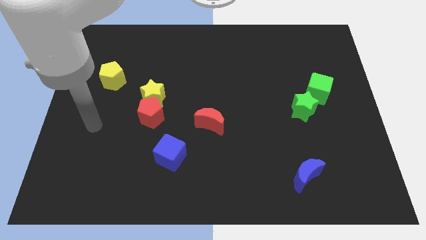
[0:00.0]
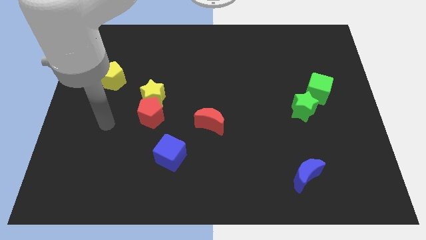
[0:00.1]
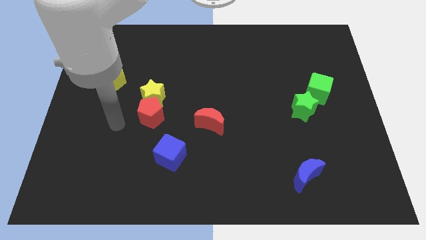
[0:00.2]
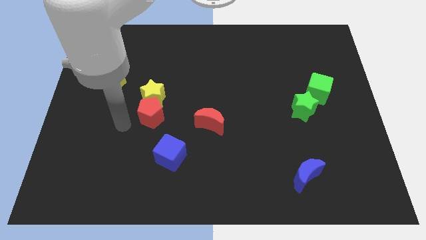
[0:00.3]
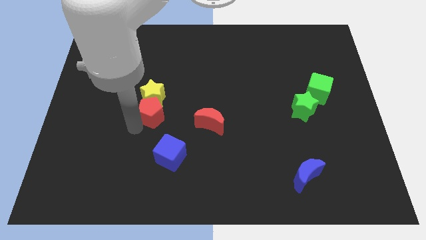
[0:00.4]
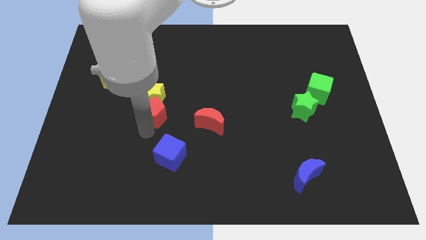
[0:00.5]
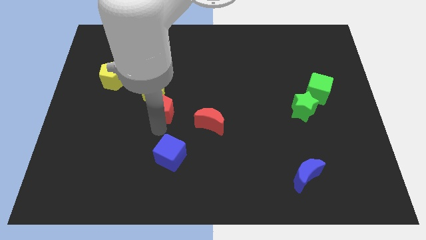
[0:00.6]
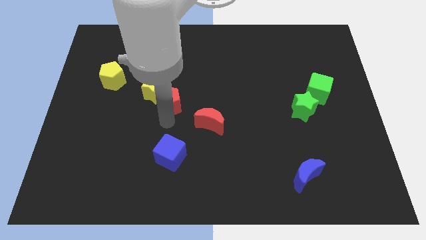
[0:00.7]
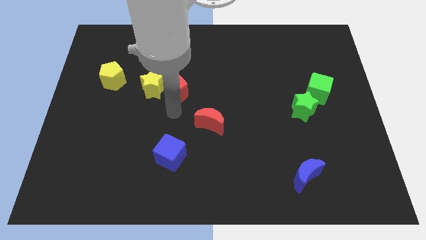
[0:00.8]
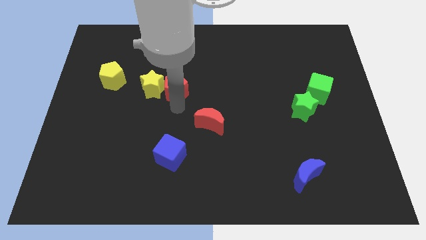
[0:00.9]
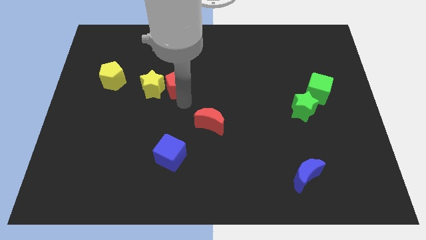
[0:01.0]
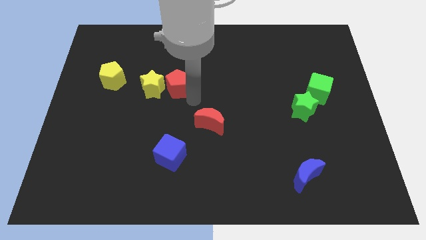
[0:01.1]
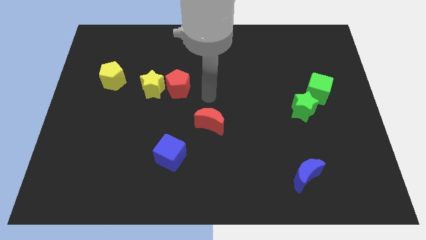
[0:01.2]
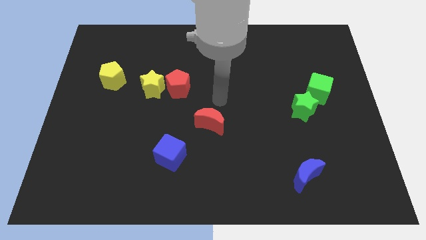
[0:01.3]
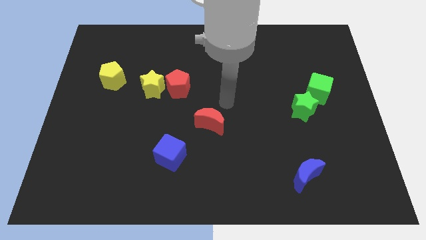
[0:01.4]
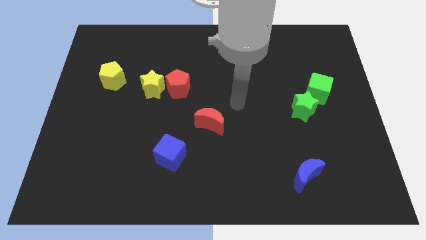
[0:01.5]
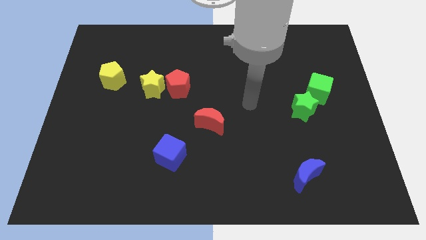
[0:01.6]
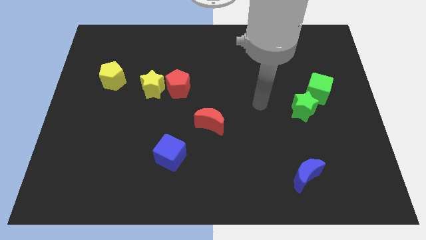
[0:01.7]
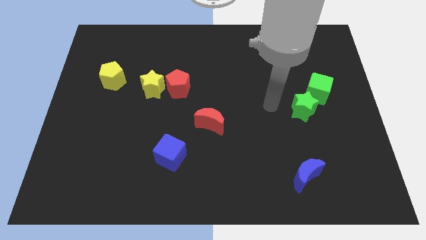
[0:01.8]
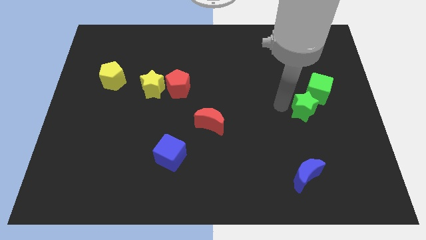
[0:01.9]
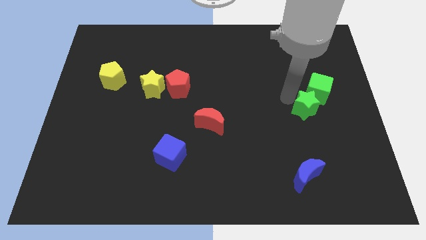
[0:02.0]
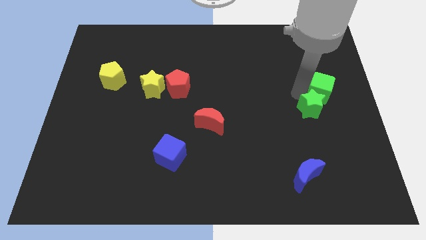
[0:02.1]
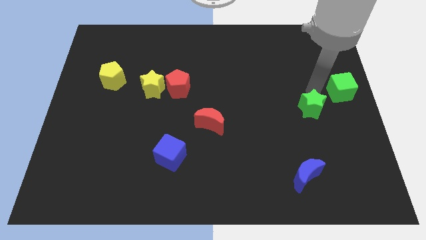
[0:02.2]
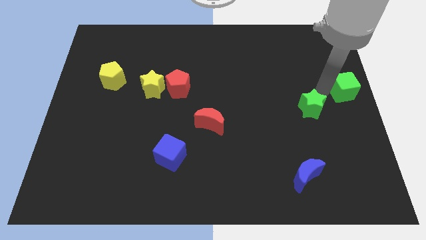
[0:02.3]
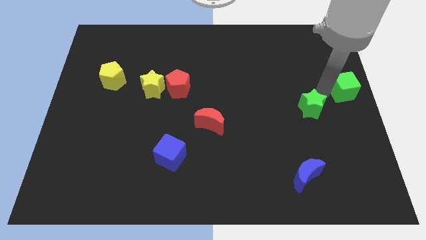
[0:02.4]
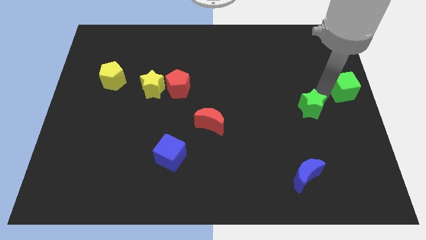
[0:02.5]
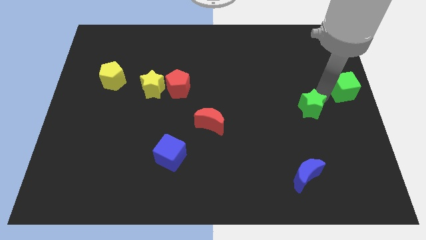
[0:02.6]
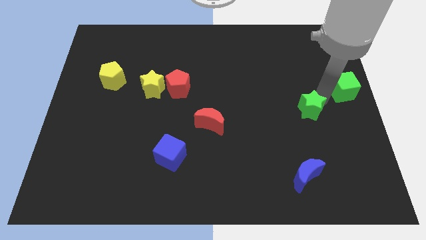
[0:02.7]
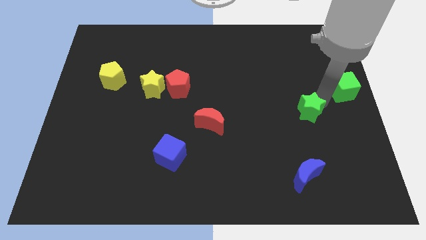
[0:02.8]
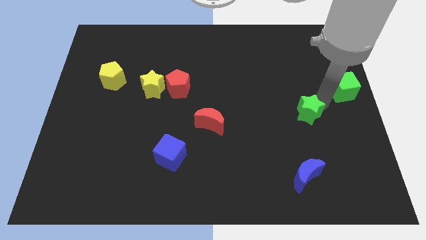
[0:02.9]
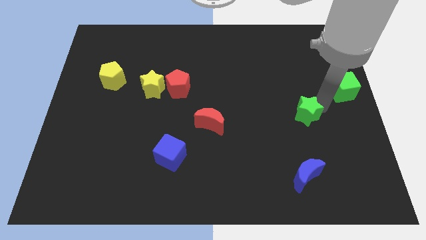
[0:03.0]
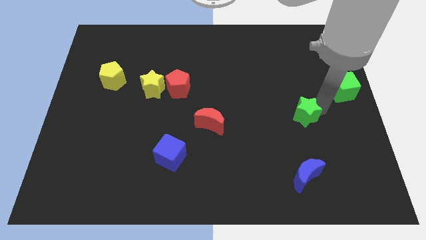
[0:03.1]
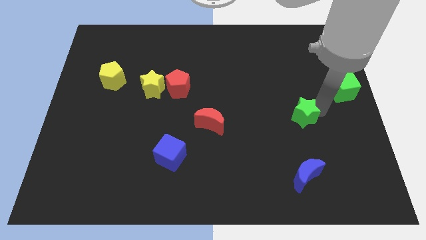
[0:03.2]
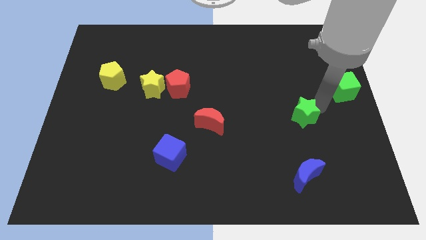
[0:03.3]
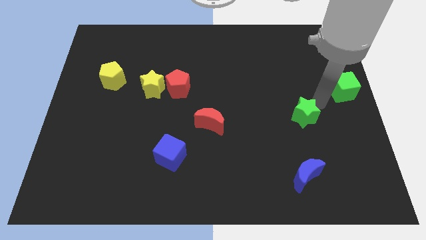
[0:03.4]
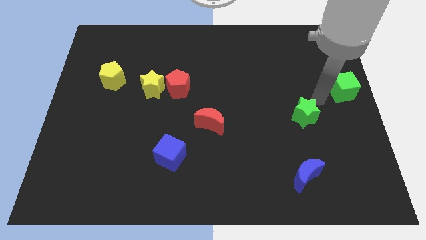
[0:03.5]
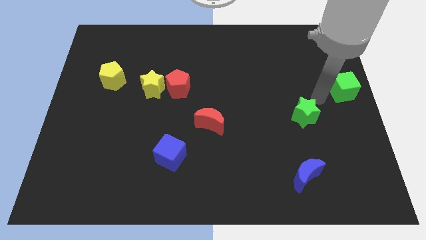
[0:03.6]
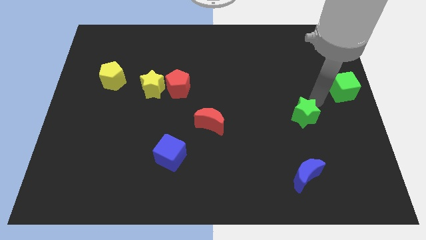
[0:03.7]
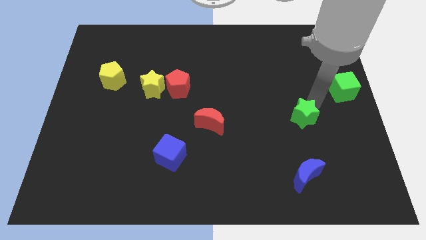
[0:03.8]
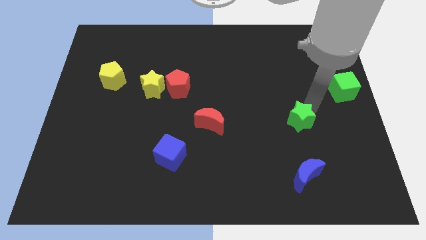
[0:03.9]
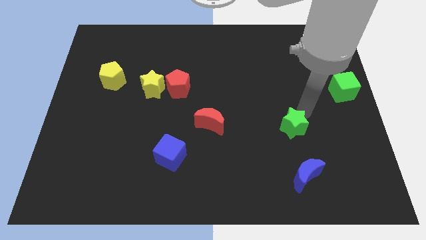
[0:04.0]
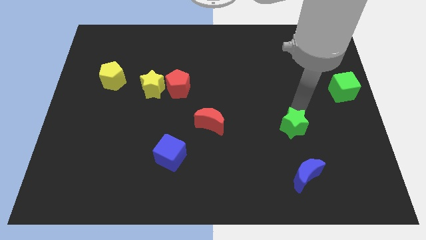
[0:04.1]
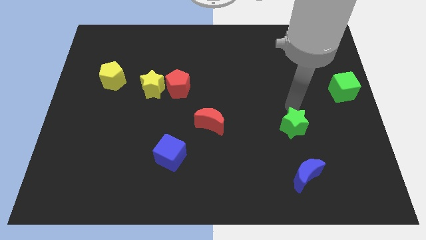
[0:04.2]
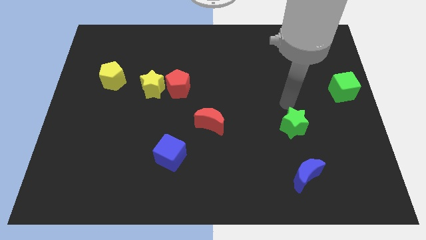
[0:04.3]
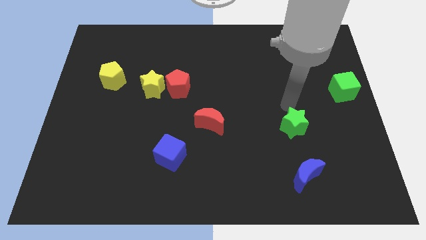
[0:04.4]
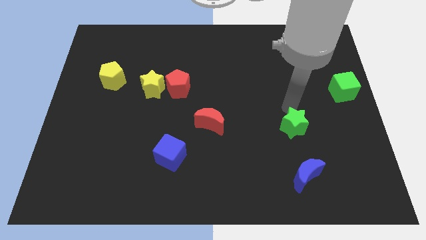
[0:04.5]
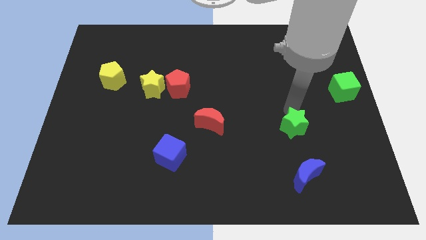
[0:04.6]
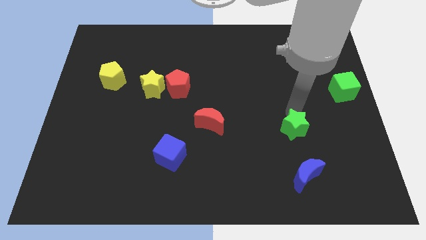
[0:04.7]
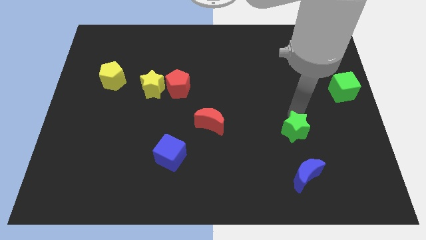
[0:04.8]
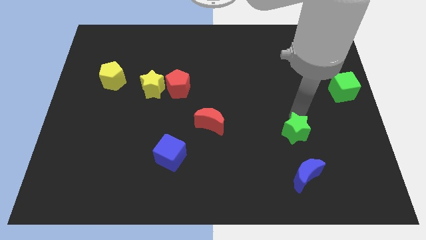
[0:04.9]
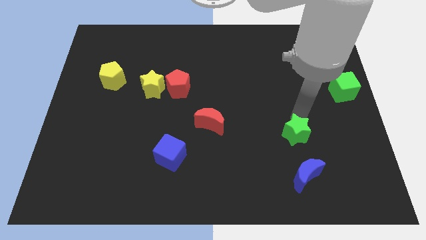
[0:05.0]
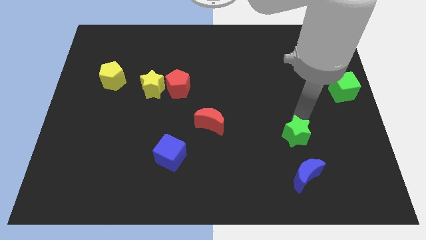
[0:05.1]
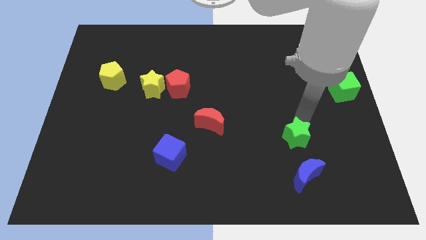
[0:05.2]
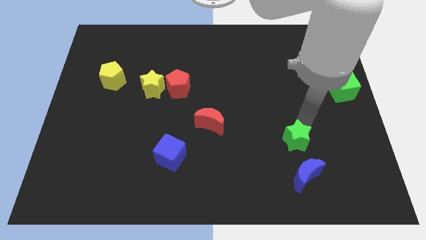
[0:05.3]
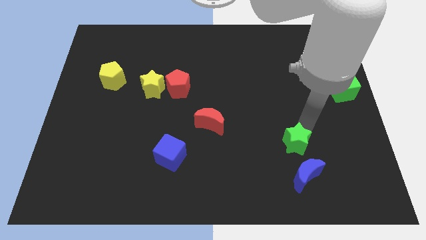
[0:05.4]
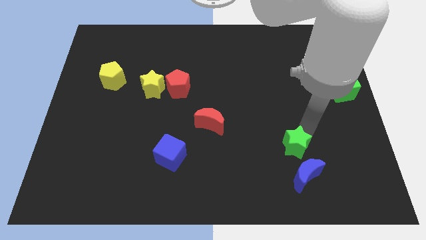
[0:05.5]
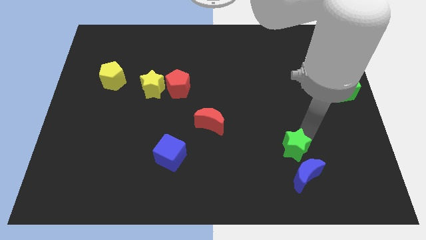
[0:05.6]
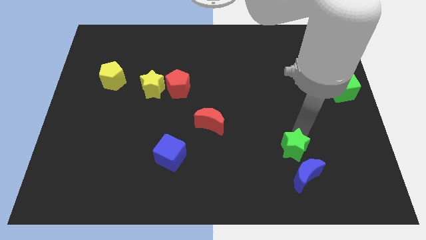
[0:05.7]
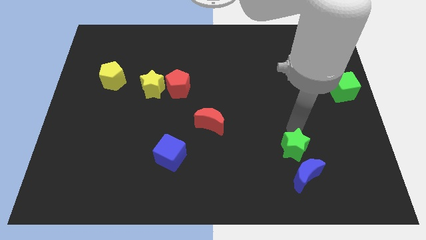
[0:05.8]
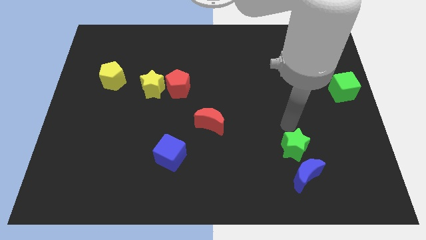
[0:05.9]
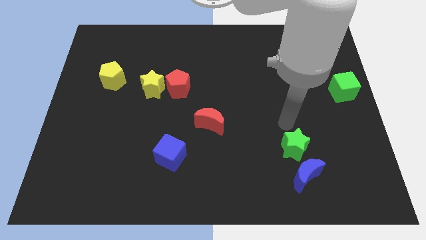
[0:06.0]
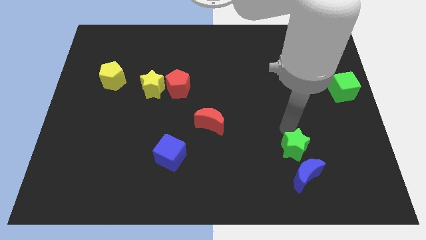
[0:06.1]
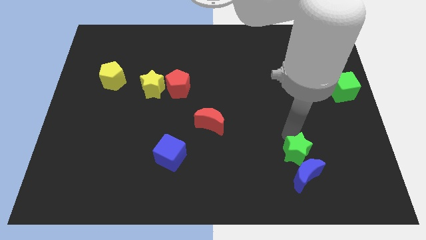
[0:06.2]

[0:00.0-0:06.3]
move the green star towards the blue moon

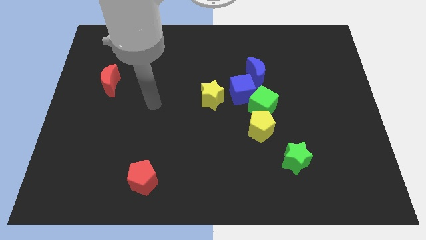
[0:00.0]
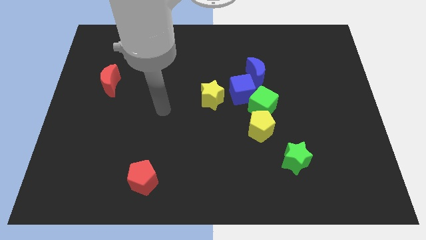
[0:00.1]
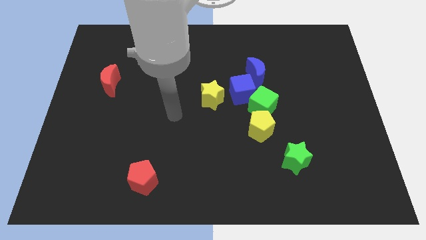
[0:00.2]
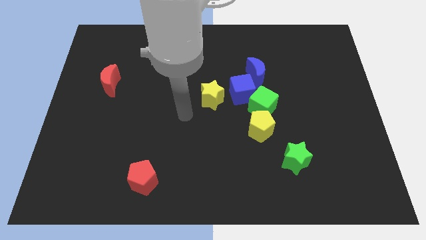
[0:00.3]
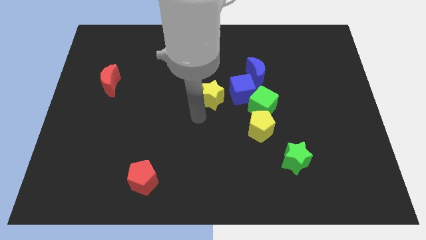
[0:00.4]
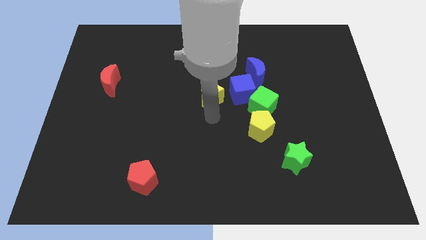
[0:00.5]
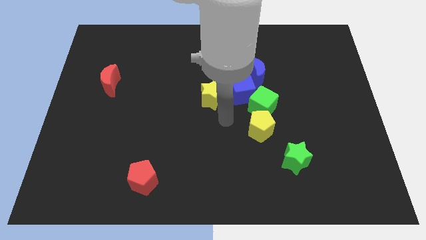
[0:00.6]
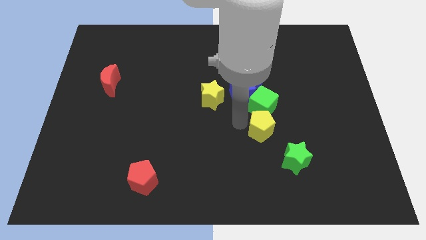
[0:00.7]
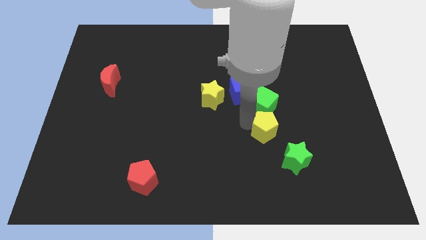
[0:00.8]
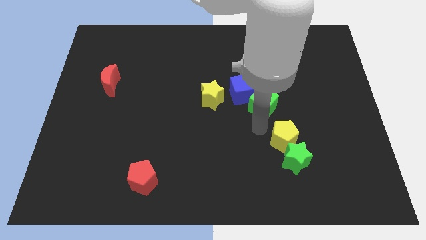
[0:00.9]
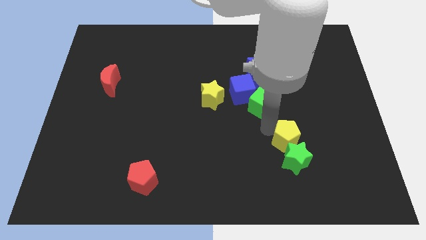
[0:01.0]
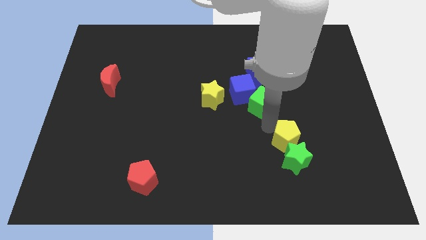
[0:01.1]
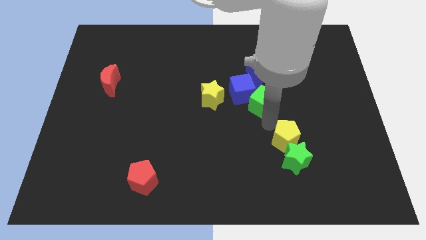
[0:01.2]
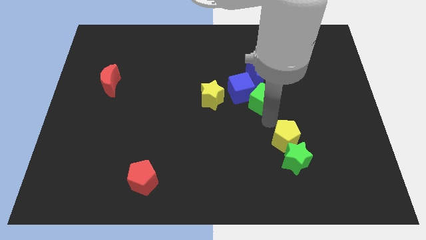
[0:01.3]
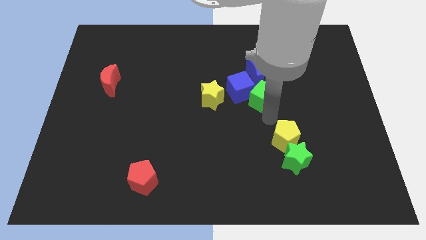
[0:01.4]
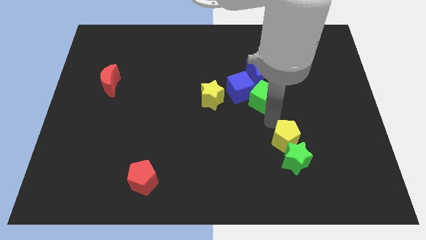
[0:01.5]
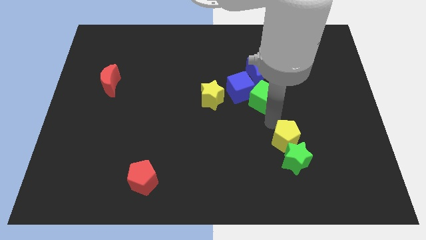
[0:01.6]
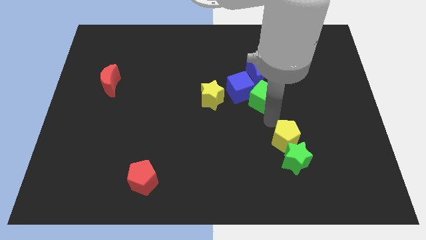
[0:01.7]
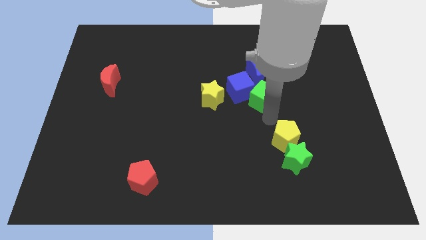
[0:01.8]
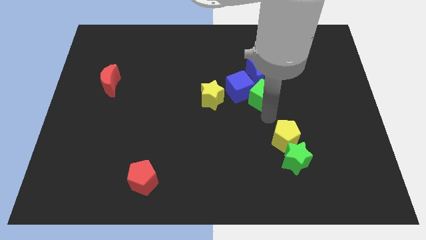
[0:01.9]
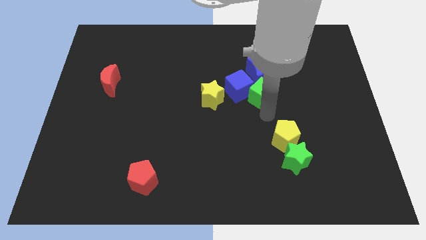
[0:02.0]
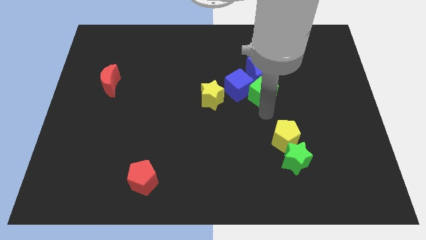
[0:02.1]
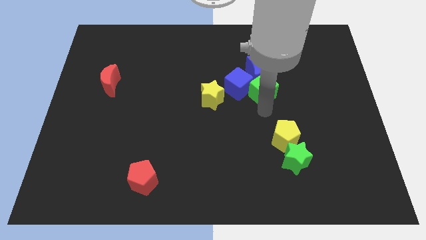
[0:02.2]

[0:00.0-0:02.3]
move the green cube next to the blue moon
